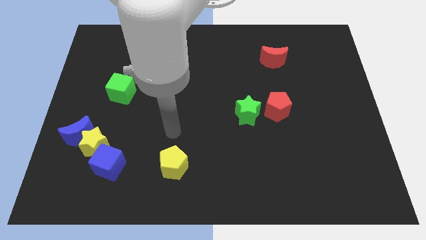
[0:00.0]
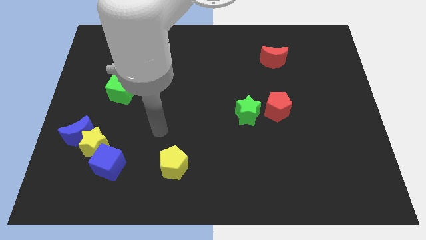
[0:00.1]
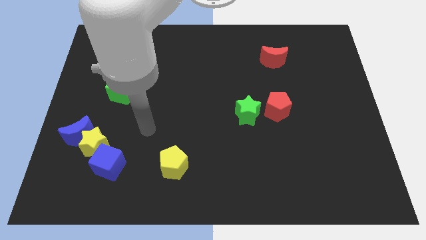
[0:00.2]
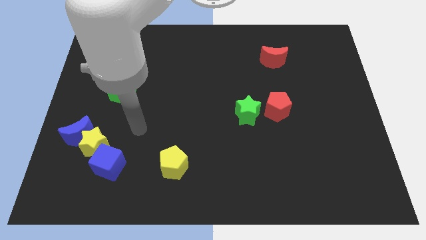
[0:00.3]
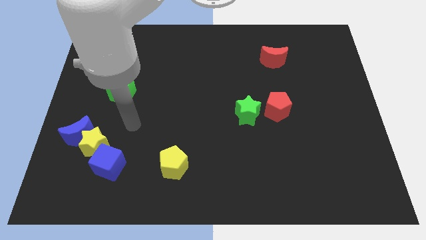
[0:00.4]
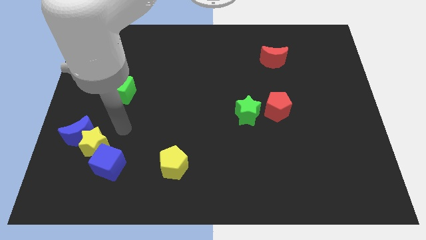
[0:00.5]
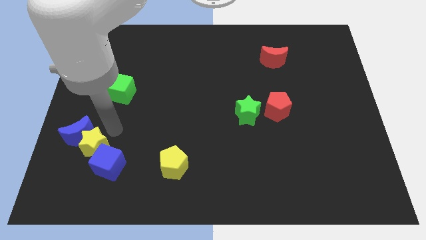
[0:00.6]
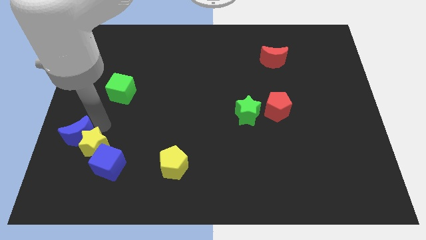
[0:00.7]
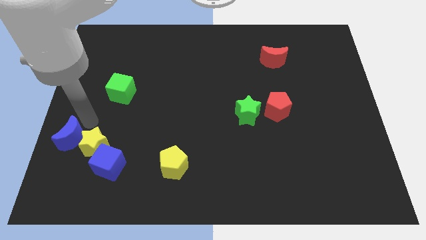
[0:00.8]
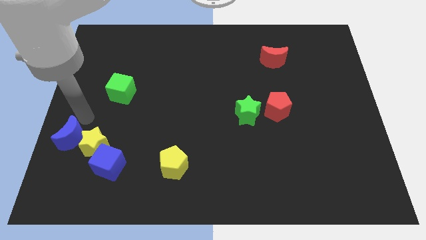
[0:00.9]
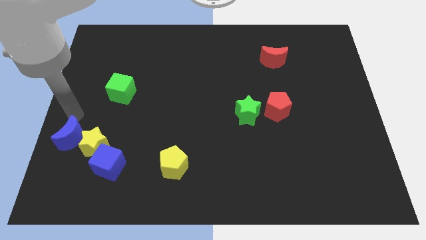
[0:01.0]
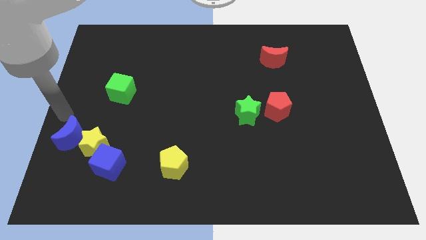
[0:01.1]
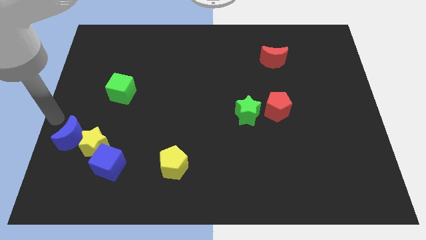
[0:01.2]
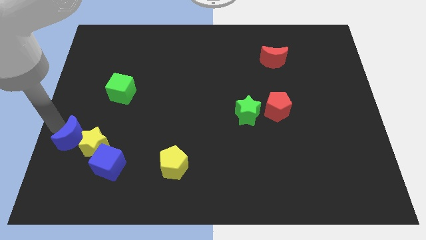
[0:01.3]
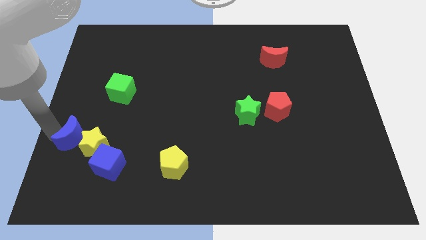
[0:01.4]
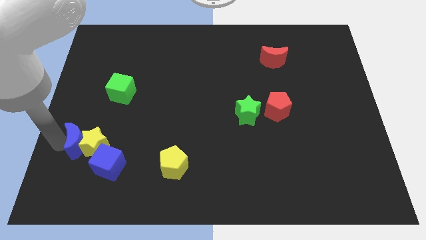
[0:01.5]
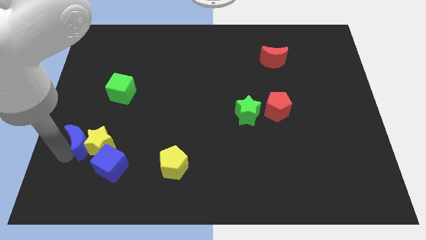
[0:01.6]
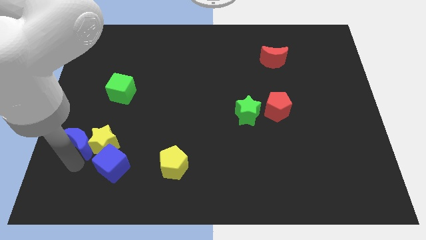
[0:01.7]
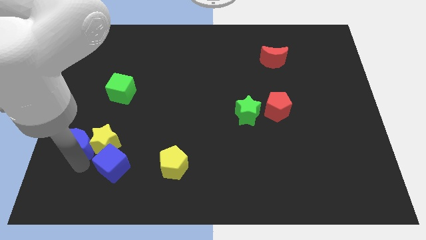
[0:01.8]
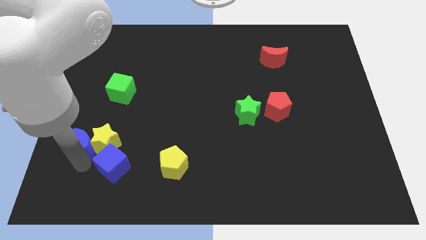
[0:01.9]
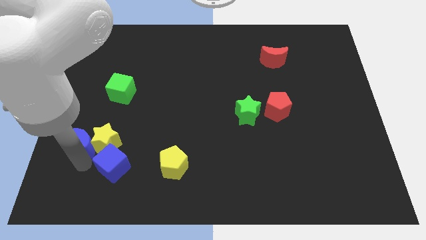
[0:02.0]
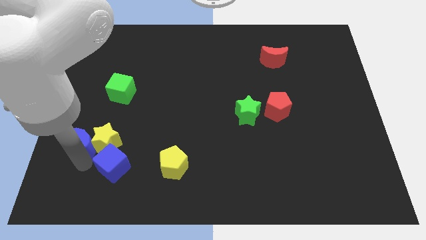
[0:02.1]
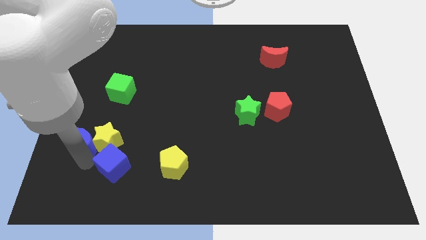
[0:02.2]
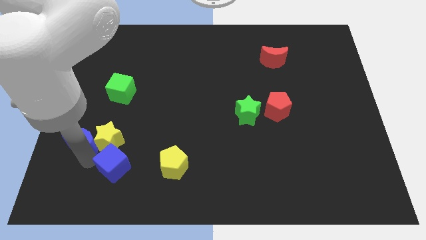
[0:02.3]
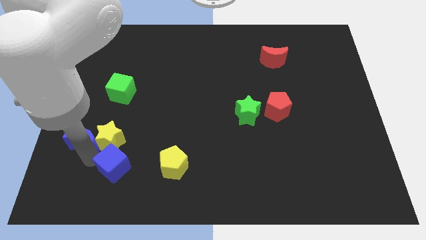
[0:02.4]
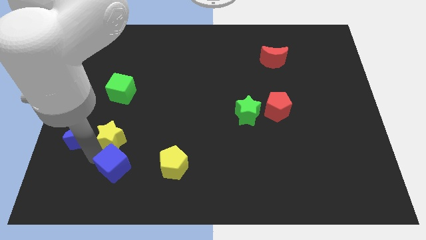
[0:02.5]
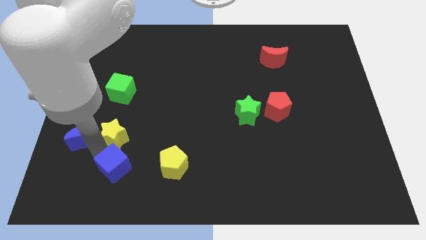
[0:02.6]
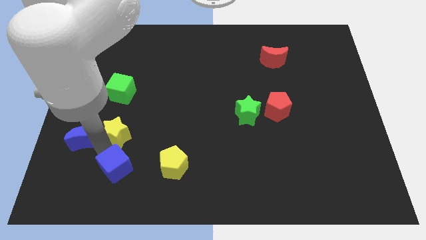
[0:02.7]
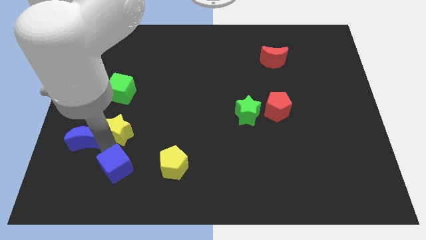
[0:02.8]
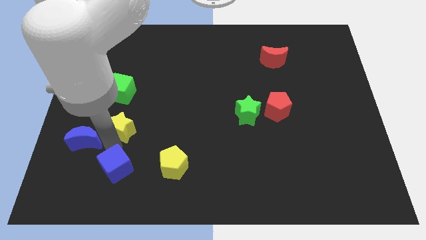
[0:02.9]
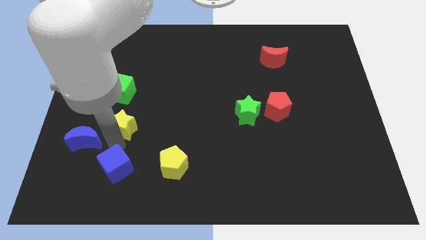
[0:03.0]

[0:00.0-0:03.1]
push the yellow star a little bit diagonally up and to the right

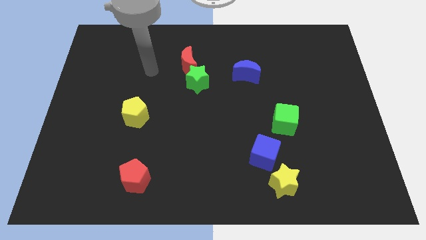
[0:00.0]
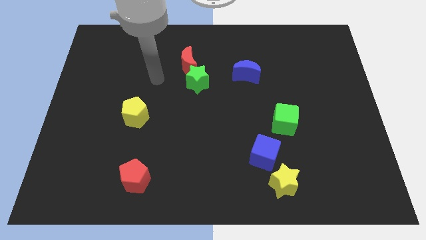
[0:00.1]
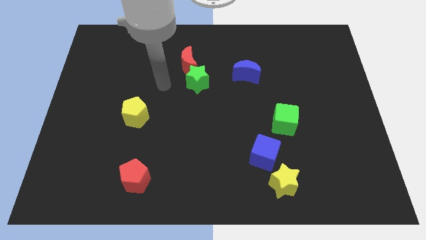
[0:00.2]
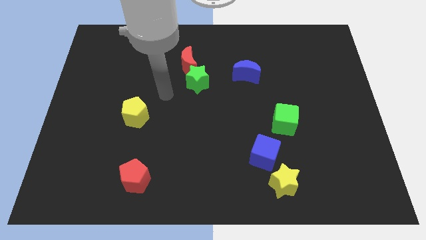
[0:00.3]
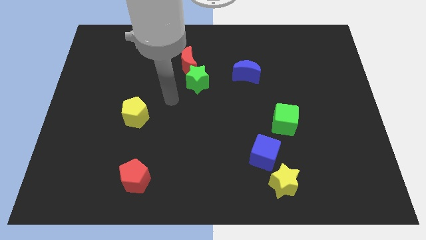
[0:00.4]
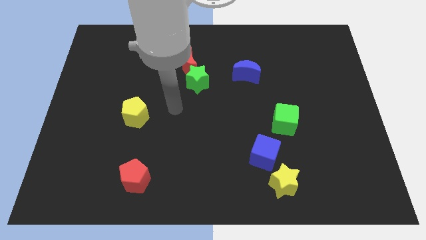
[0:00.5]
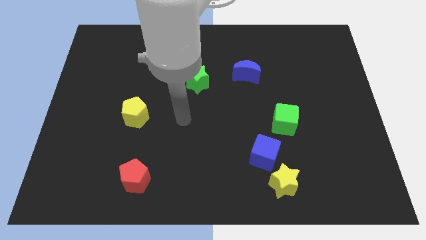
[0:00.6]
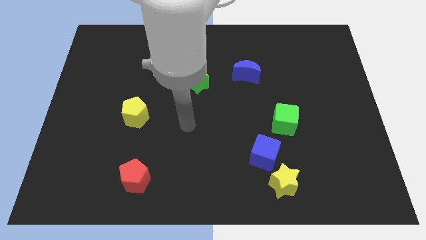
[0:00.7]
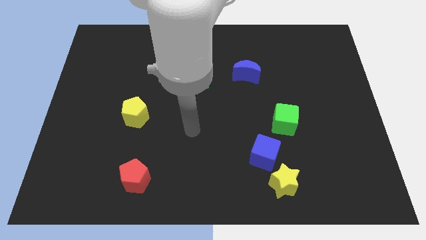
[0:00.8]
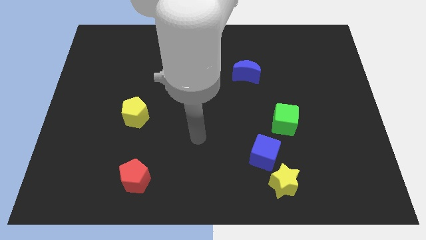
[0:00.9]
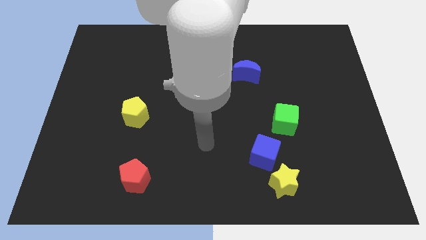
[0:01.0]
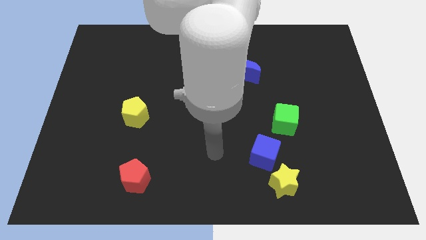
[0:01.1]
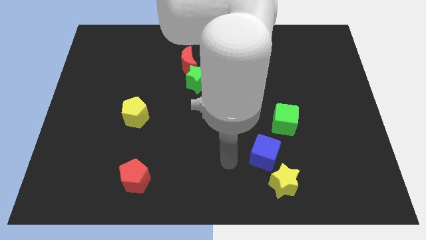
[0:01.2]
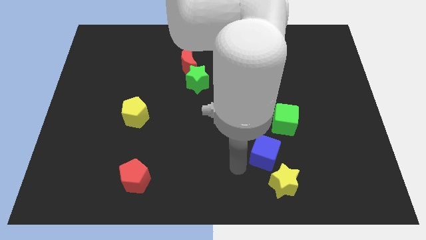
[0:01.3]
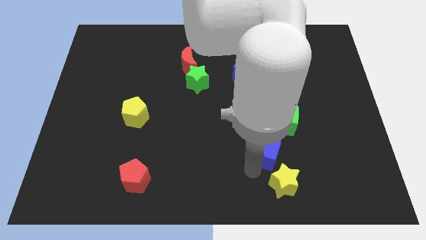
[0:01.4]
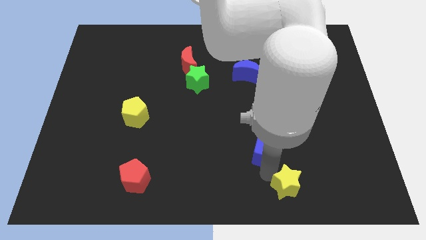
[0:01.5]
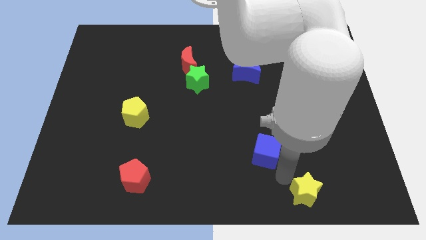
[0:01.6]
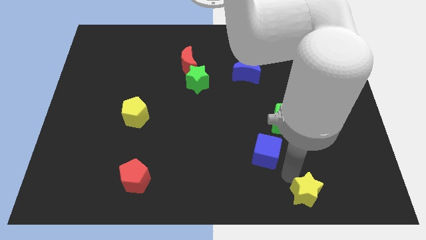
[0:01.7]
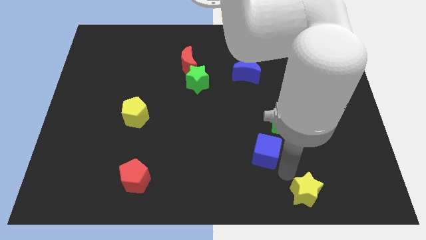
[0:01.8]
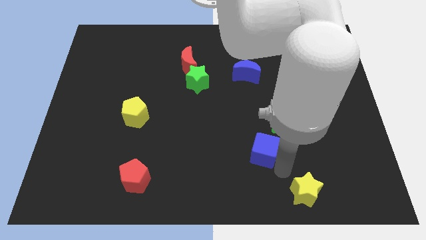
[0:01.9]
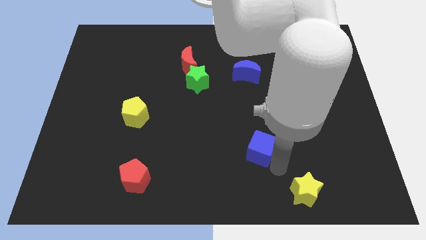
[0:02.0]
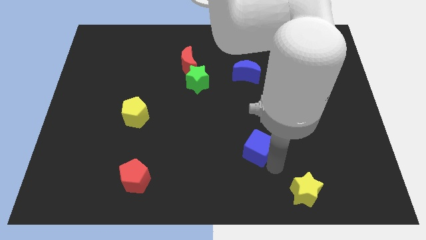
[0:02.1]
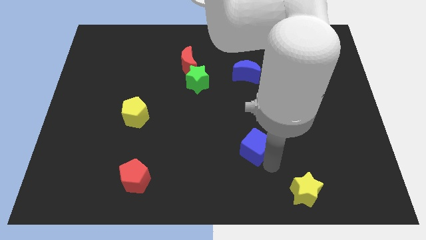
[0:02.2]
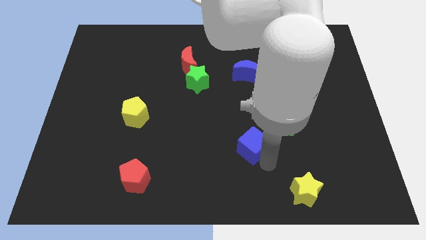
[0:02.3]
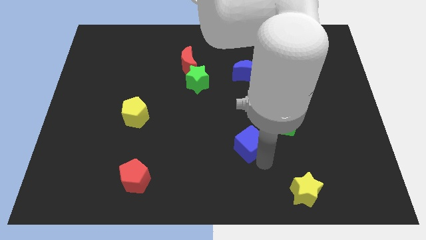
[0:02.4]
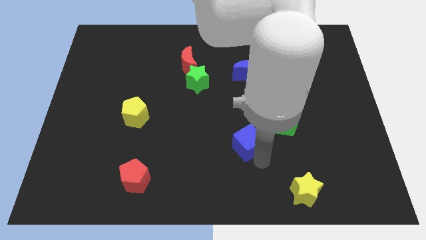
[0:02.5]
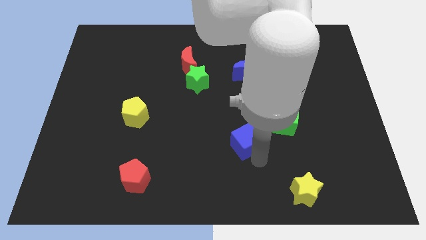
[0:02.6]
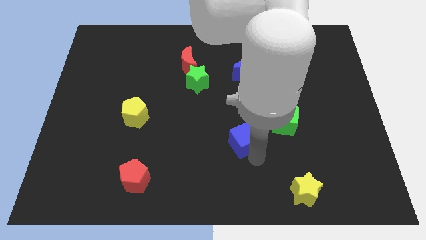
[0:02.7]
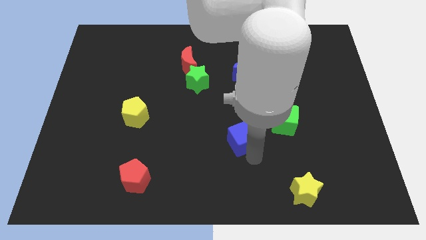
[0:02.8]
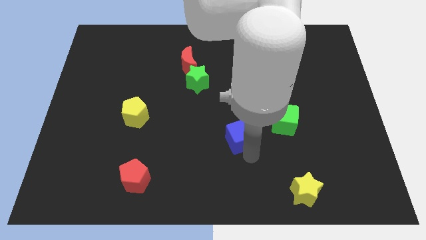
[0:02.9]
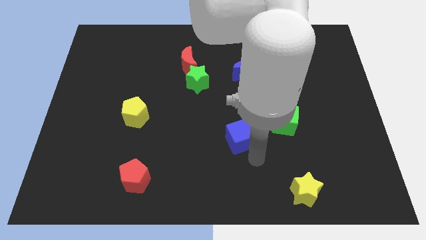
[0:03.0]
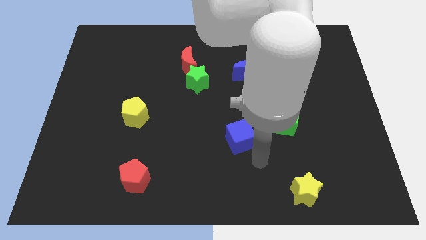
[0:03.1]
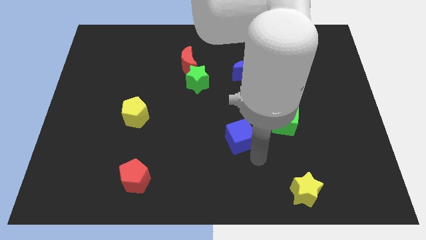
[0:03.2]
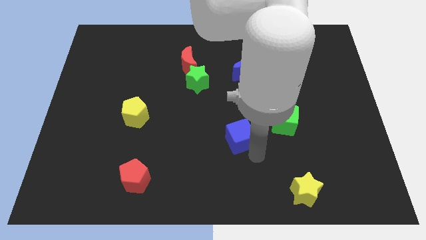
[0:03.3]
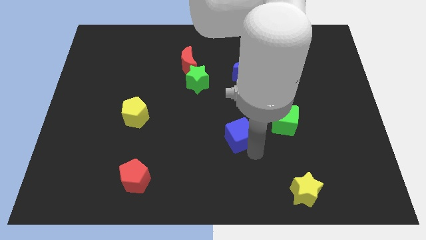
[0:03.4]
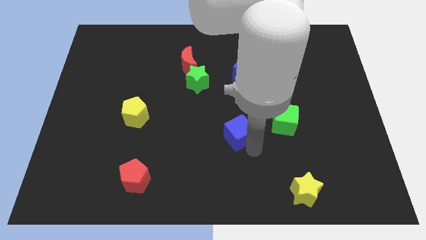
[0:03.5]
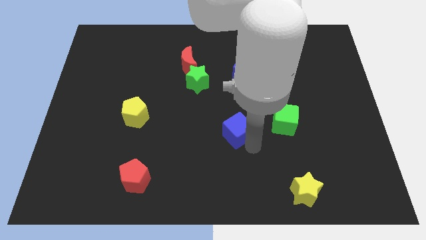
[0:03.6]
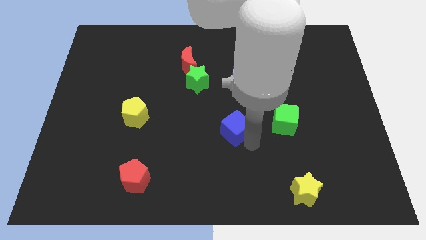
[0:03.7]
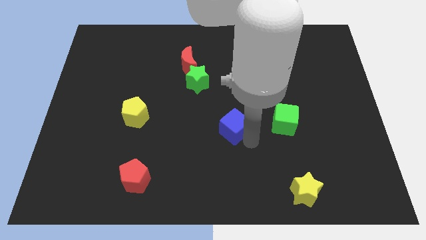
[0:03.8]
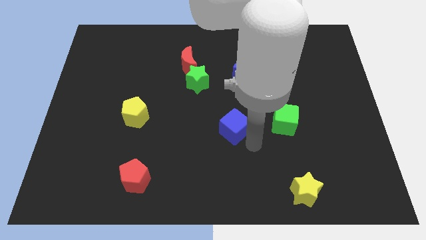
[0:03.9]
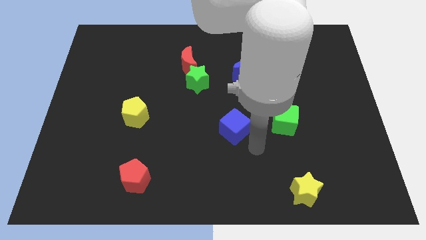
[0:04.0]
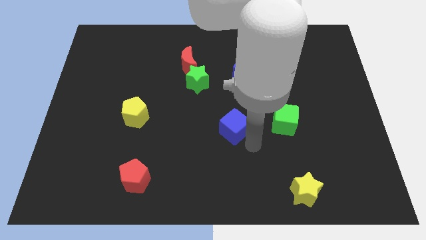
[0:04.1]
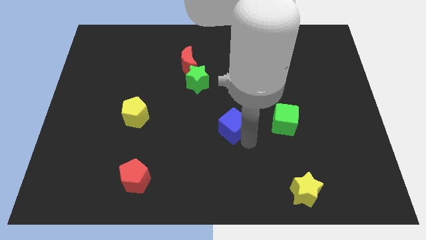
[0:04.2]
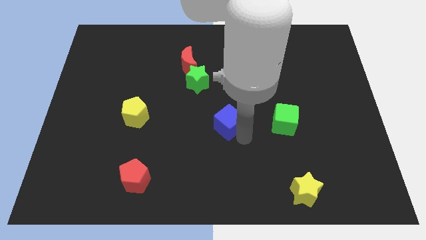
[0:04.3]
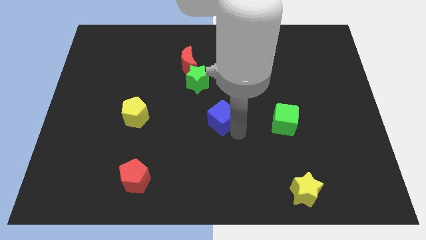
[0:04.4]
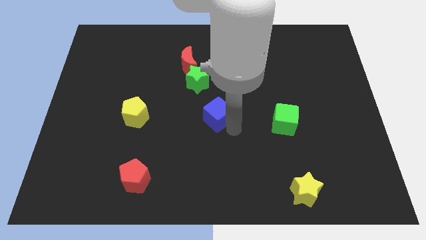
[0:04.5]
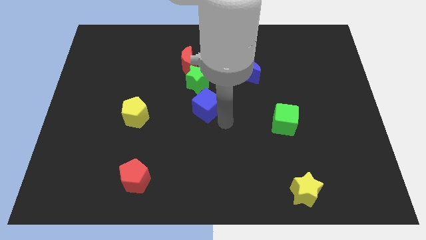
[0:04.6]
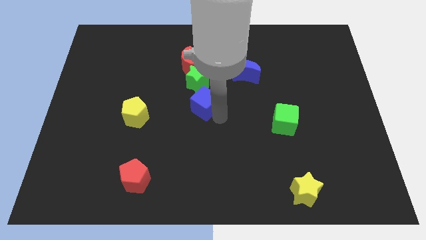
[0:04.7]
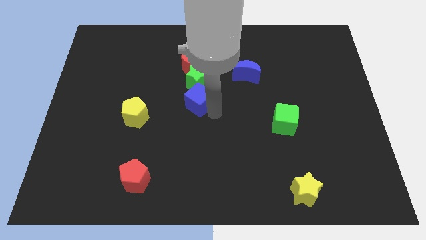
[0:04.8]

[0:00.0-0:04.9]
slide the blue cube diagonally up and left

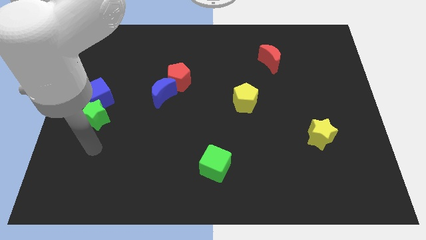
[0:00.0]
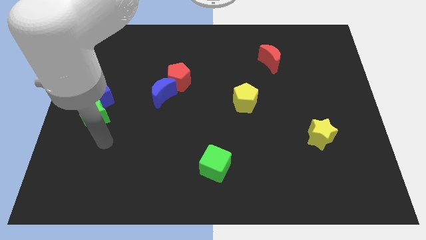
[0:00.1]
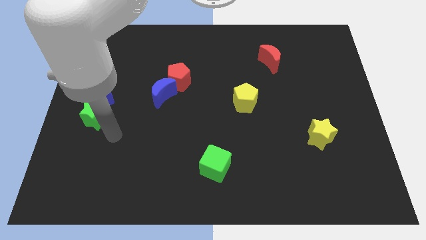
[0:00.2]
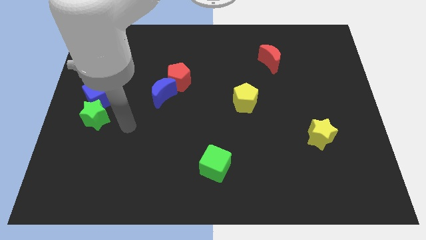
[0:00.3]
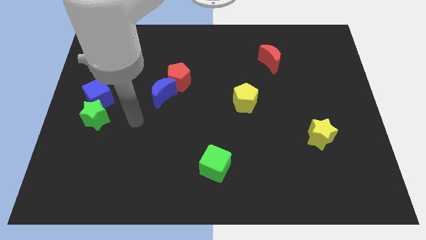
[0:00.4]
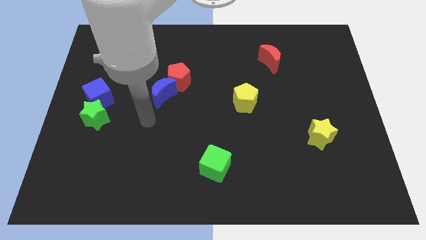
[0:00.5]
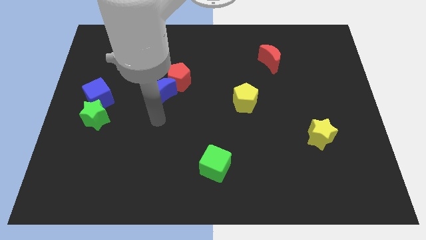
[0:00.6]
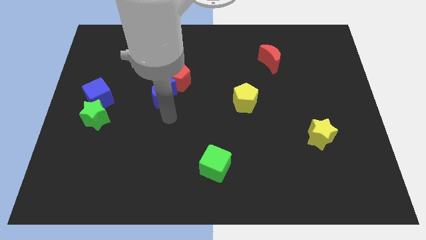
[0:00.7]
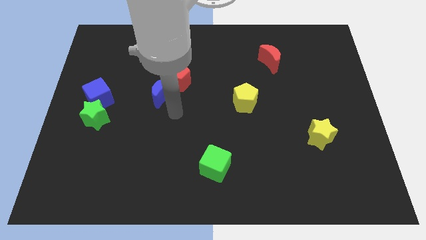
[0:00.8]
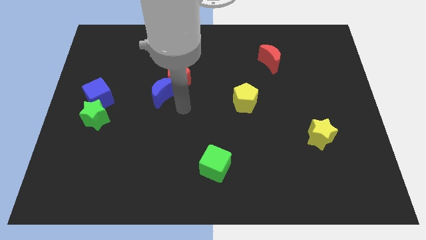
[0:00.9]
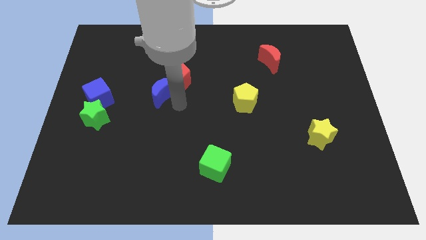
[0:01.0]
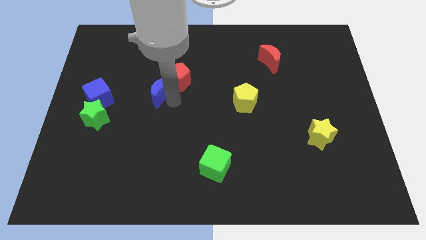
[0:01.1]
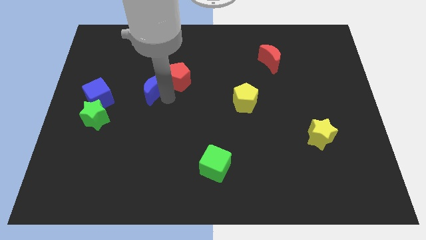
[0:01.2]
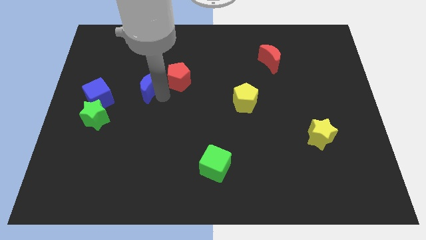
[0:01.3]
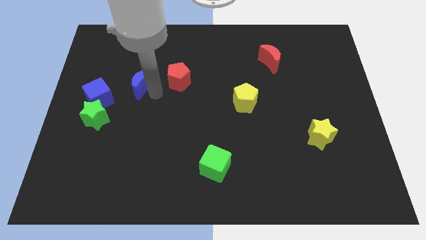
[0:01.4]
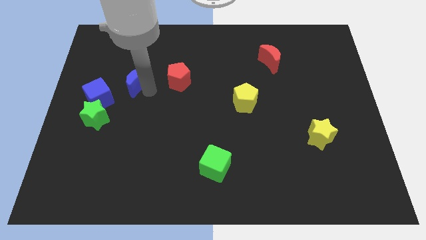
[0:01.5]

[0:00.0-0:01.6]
slide the blue moon diagonally up and left a bit
